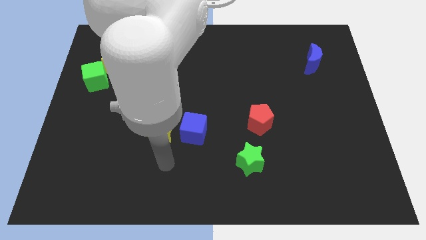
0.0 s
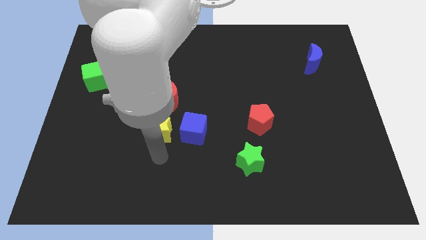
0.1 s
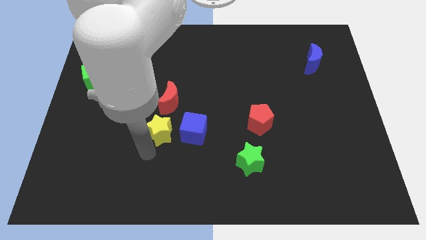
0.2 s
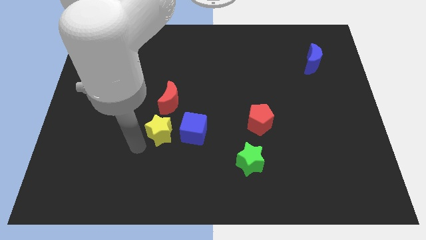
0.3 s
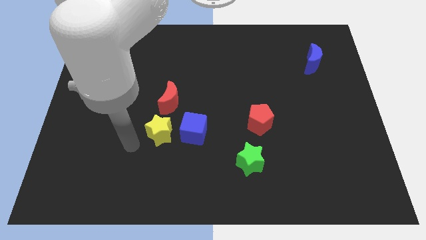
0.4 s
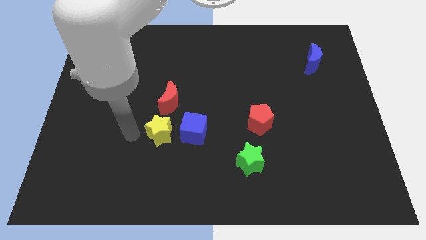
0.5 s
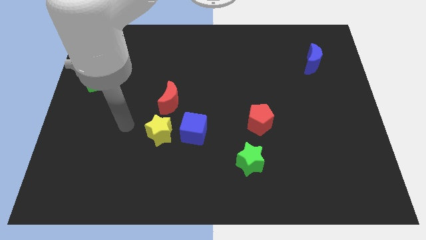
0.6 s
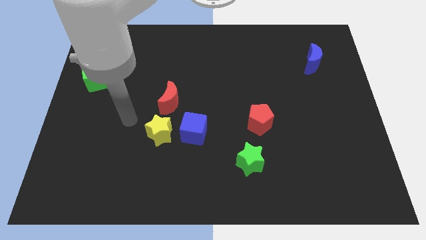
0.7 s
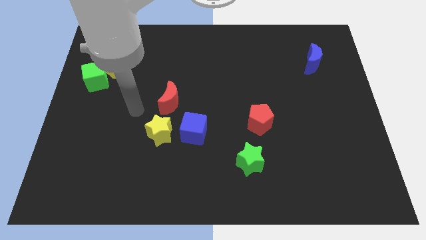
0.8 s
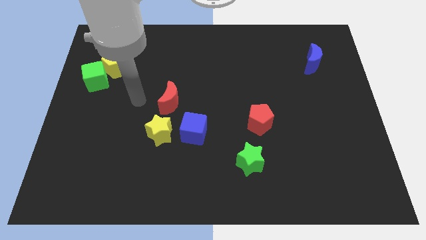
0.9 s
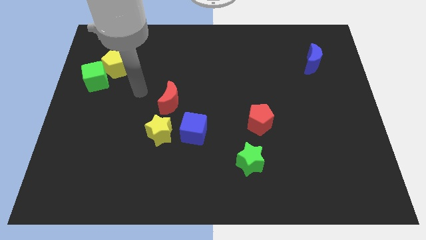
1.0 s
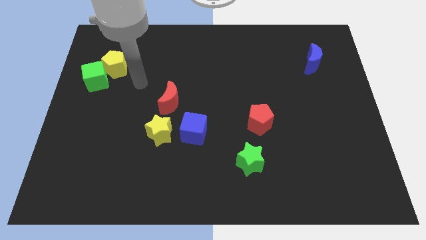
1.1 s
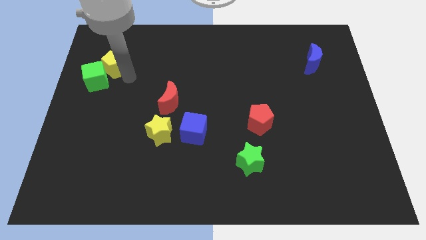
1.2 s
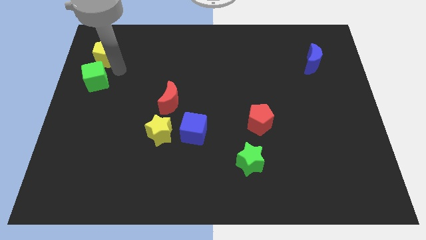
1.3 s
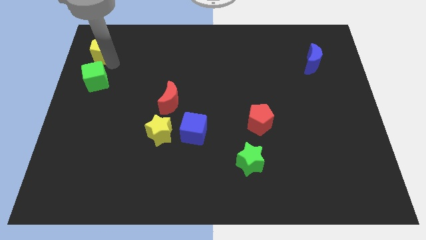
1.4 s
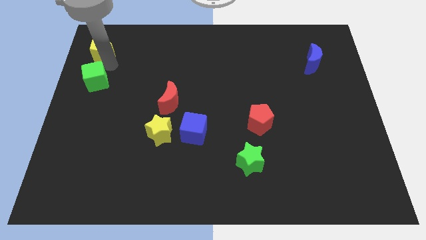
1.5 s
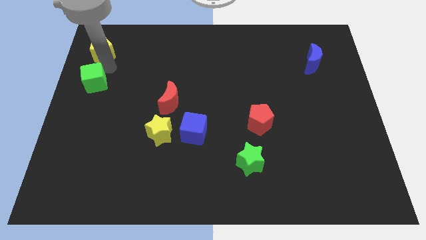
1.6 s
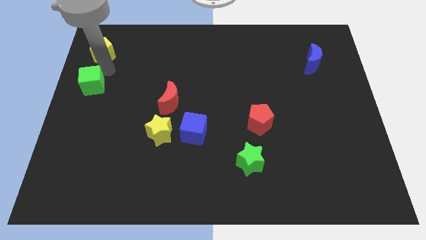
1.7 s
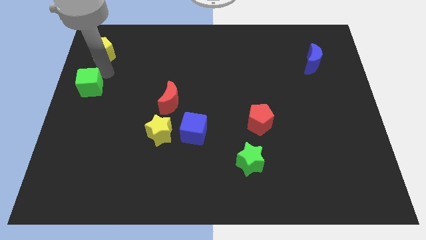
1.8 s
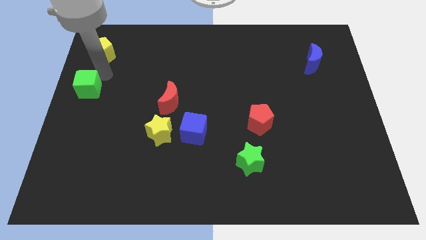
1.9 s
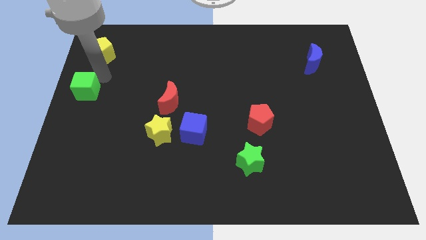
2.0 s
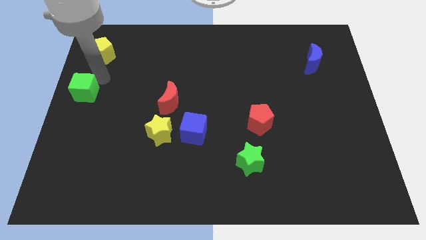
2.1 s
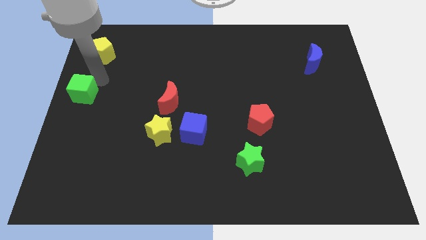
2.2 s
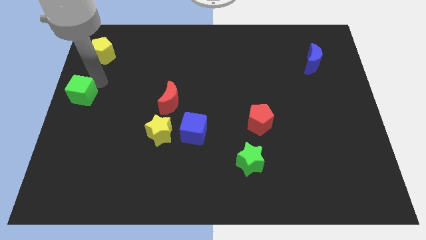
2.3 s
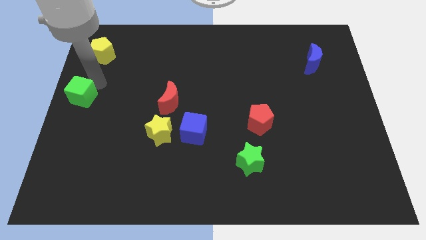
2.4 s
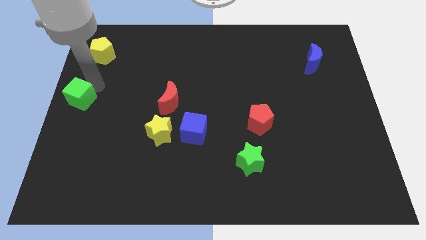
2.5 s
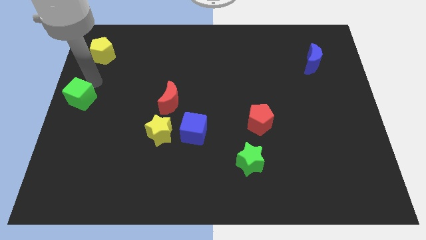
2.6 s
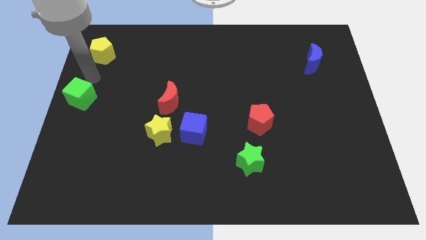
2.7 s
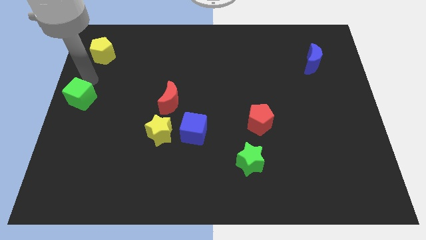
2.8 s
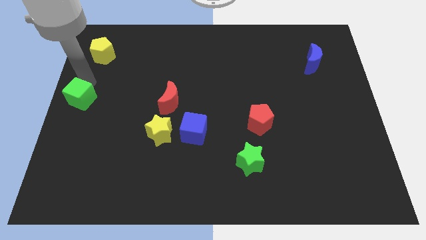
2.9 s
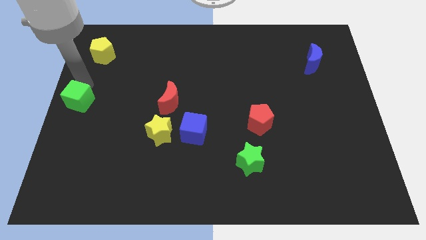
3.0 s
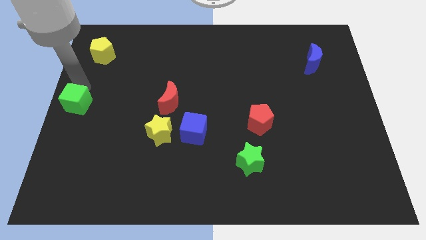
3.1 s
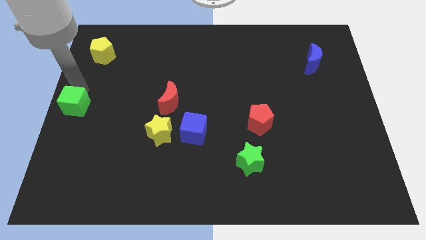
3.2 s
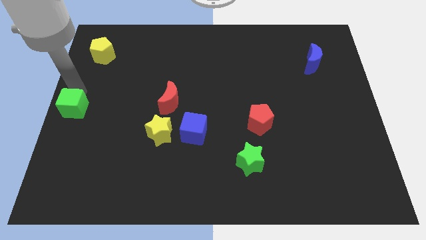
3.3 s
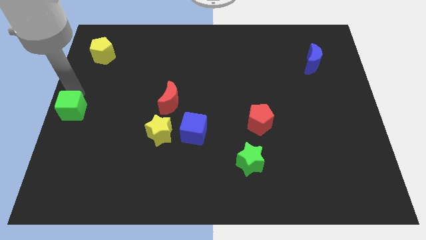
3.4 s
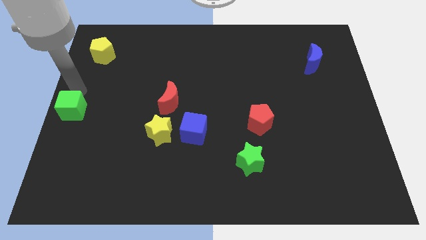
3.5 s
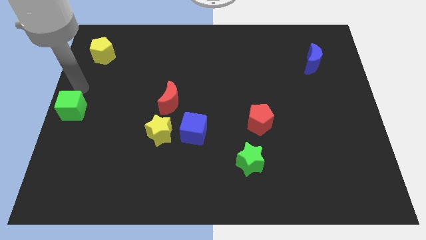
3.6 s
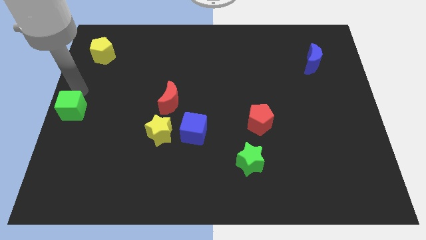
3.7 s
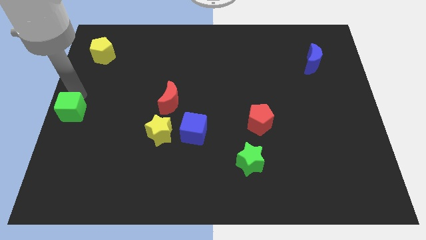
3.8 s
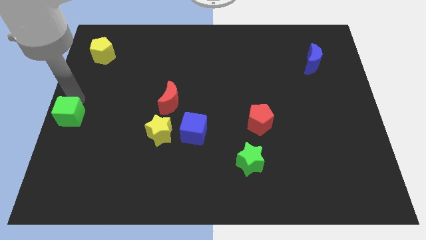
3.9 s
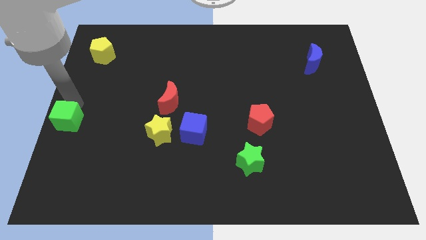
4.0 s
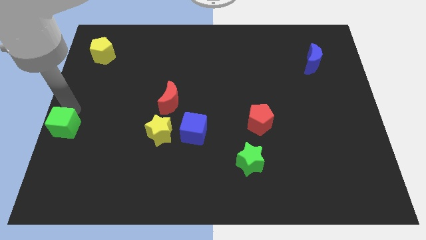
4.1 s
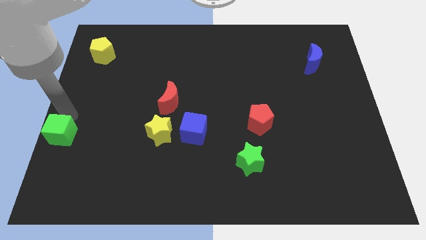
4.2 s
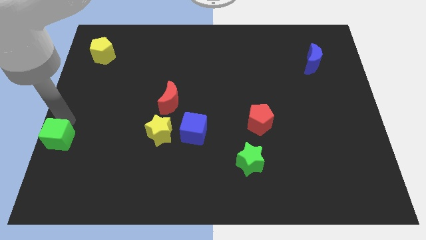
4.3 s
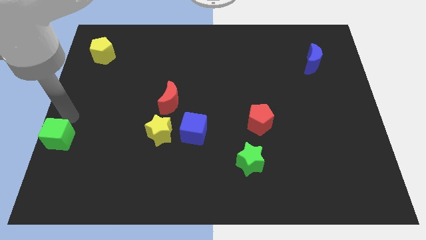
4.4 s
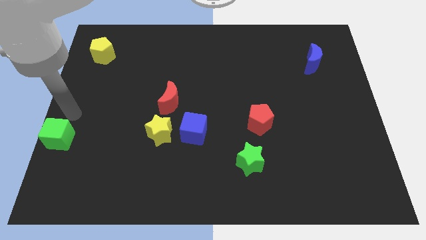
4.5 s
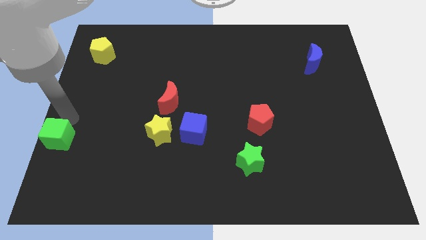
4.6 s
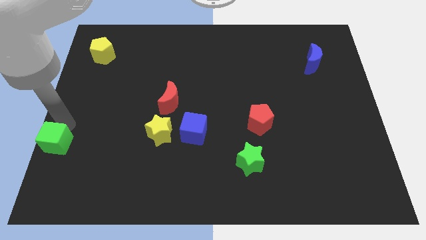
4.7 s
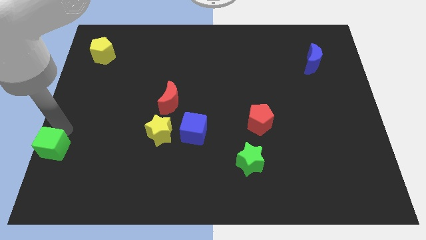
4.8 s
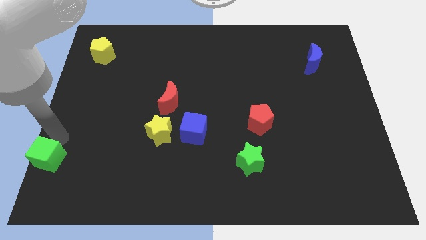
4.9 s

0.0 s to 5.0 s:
move the green cube to the bottom left of the board

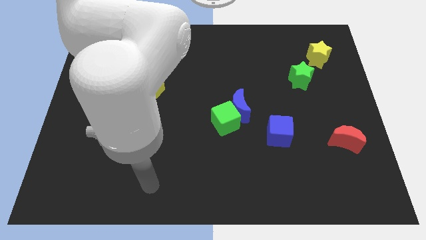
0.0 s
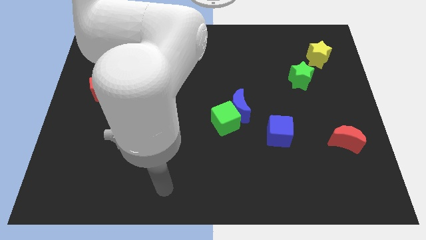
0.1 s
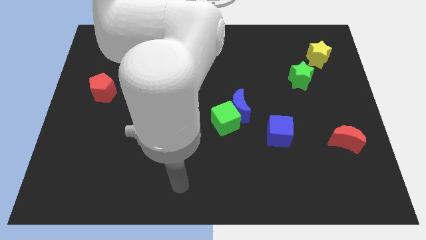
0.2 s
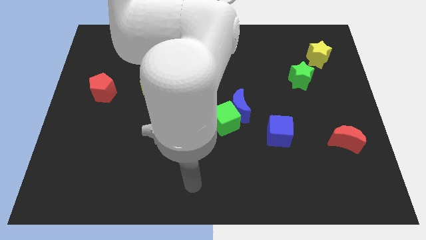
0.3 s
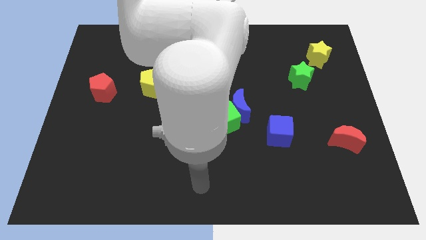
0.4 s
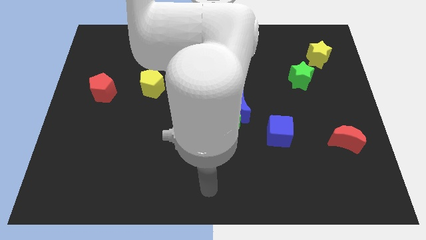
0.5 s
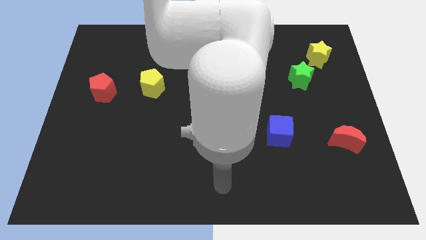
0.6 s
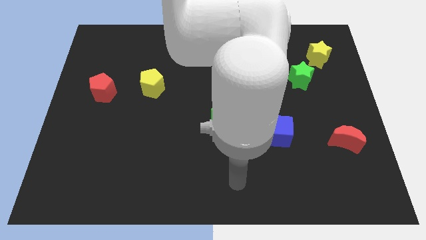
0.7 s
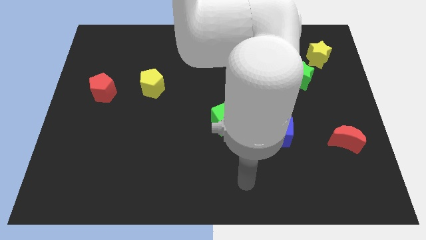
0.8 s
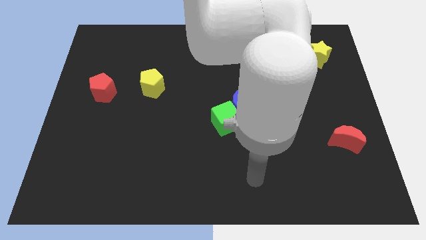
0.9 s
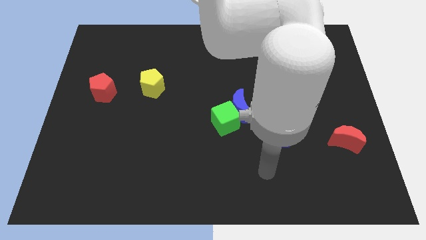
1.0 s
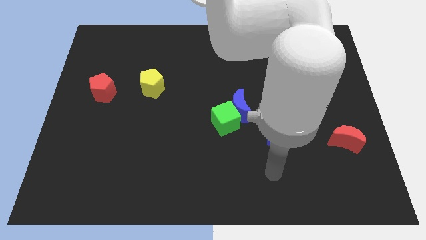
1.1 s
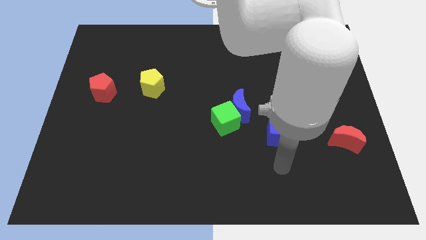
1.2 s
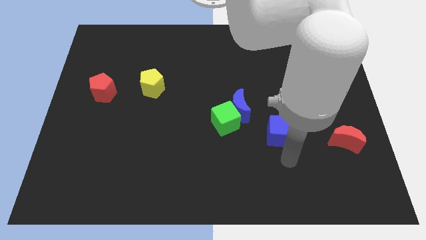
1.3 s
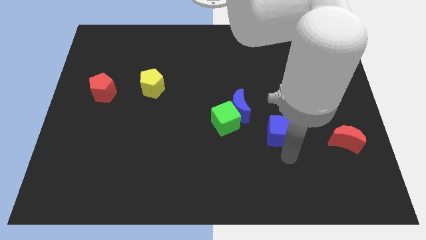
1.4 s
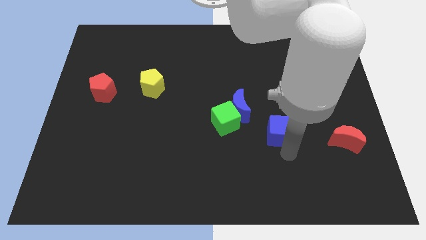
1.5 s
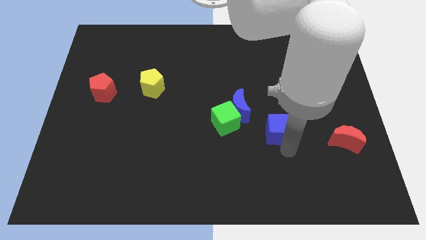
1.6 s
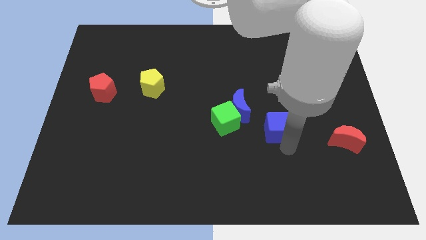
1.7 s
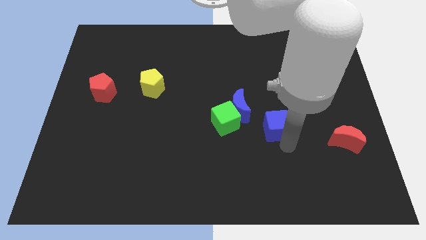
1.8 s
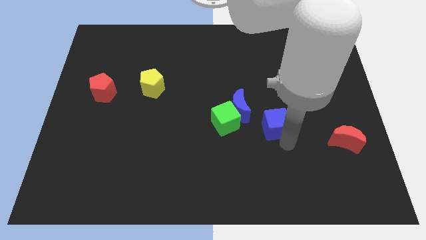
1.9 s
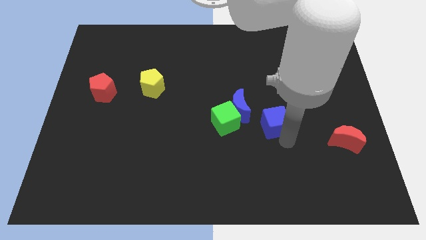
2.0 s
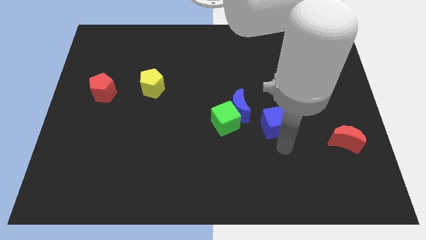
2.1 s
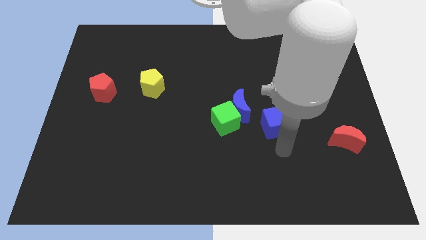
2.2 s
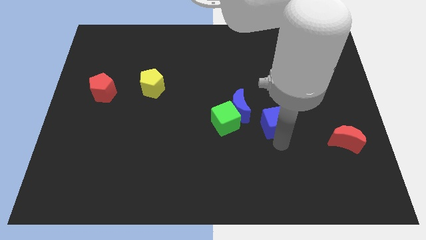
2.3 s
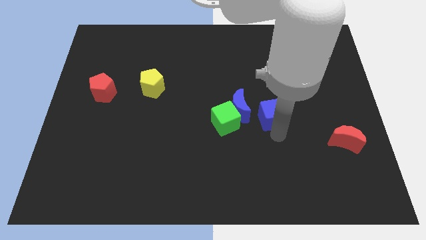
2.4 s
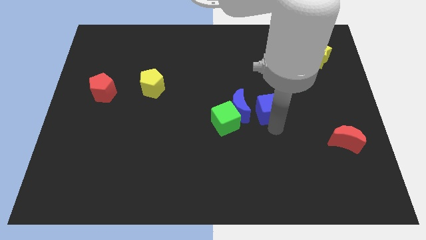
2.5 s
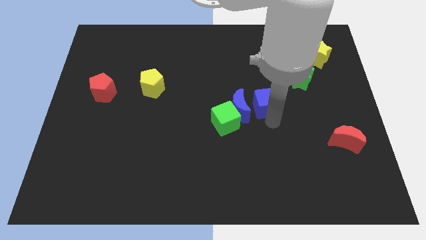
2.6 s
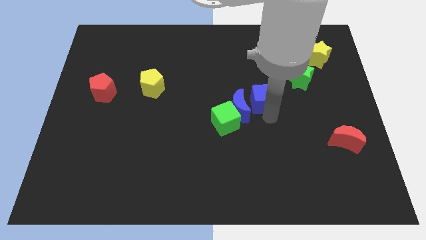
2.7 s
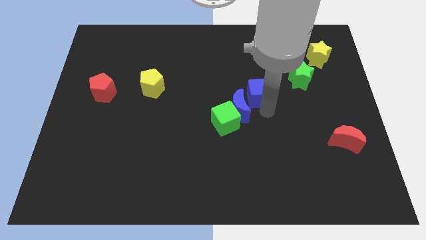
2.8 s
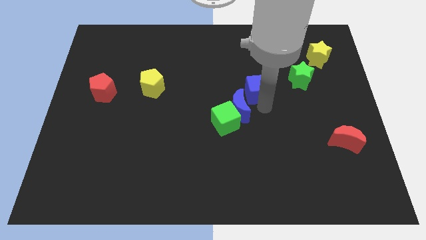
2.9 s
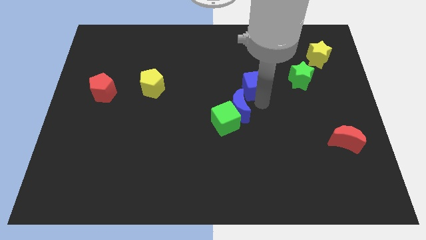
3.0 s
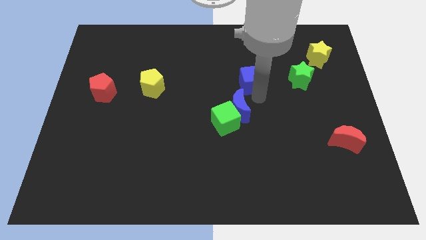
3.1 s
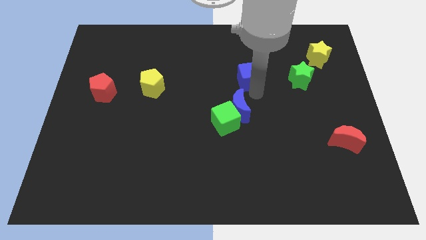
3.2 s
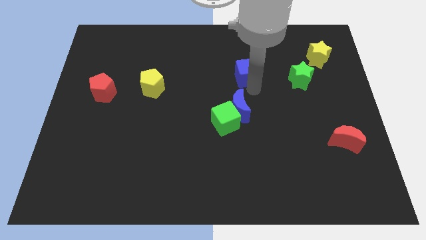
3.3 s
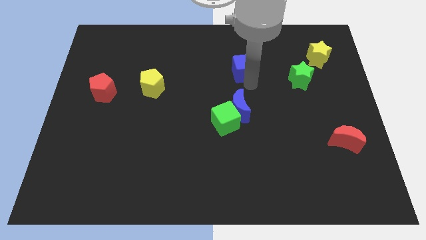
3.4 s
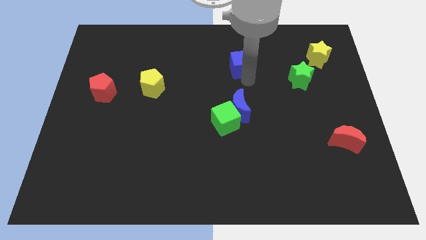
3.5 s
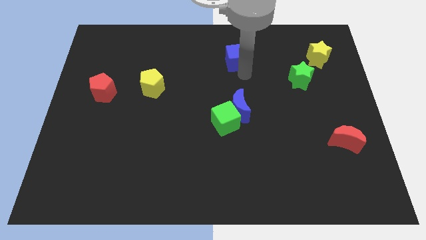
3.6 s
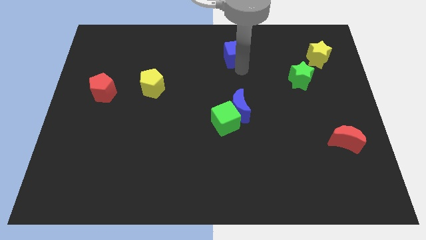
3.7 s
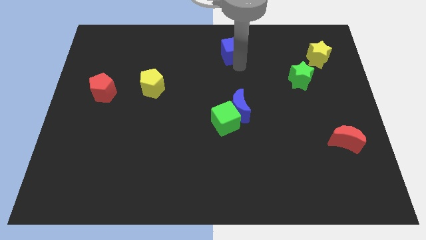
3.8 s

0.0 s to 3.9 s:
push the blue cube to the top
